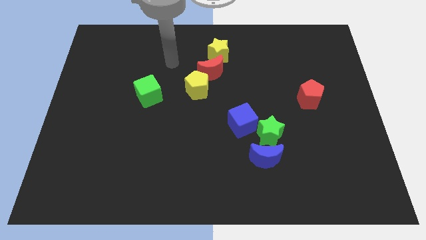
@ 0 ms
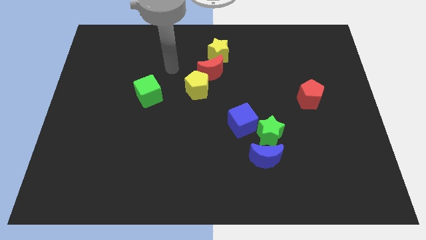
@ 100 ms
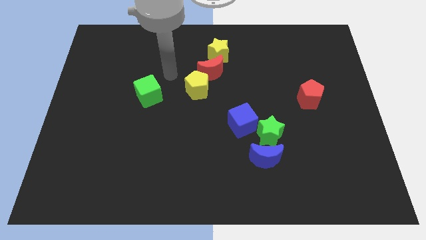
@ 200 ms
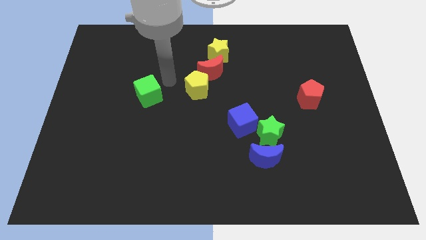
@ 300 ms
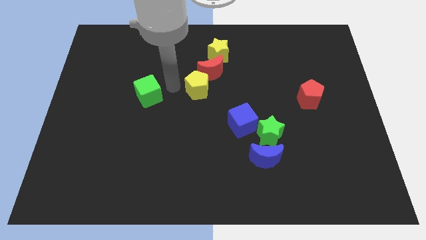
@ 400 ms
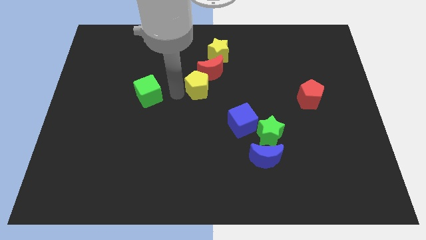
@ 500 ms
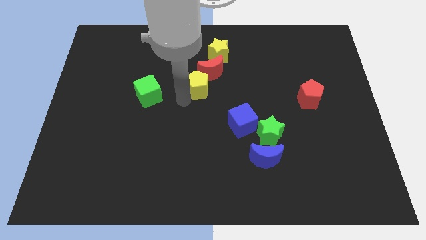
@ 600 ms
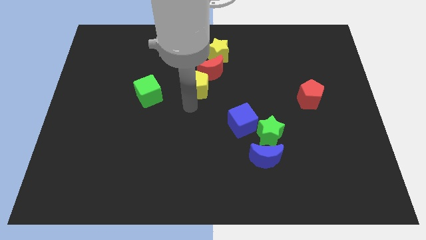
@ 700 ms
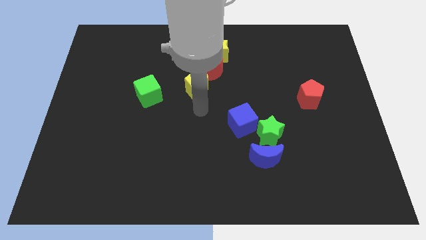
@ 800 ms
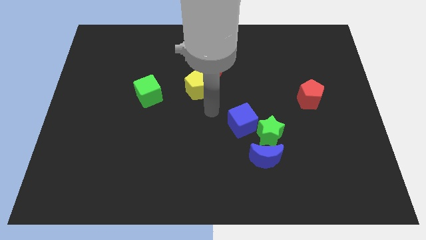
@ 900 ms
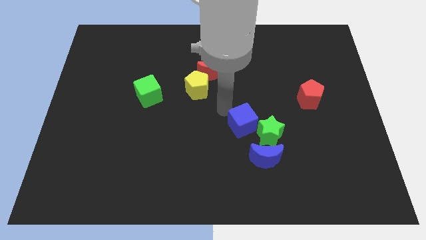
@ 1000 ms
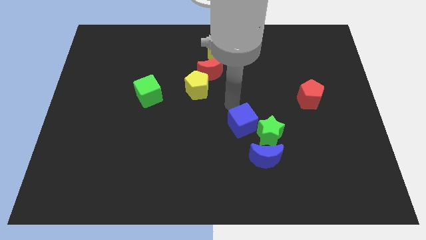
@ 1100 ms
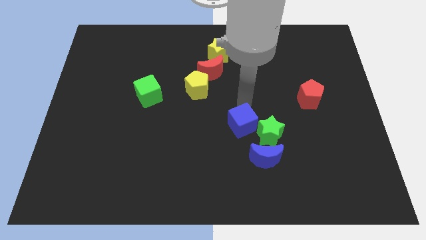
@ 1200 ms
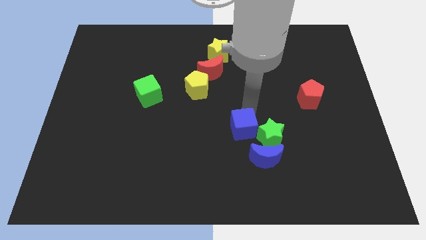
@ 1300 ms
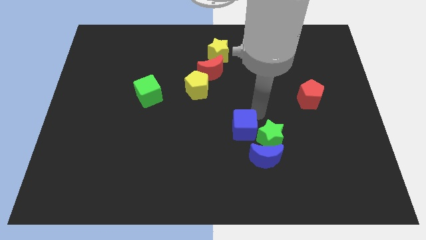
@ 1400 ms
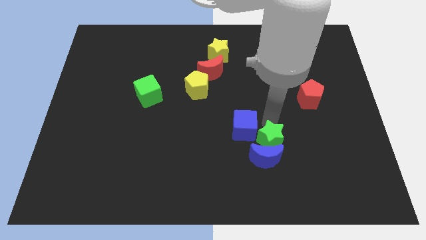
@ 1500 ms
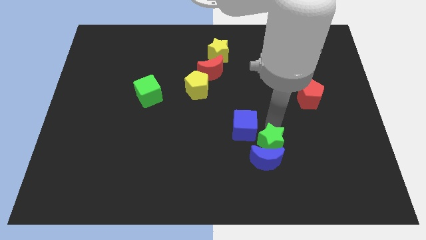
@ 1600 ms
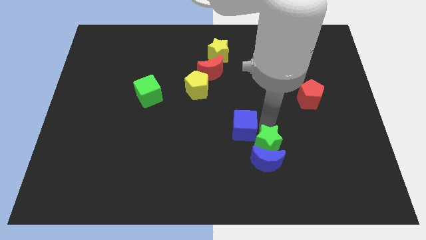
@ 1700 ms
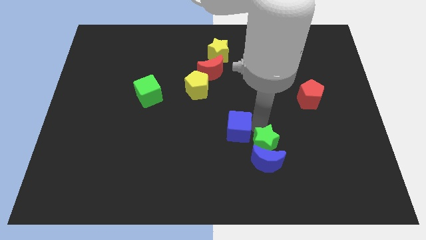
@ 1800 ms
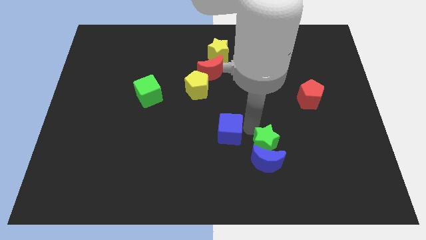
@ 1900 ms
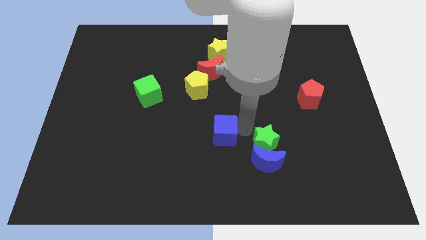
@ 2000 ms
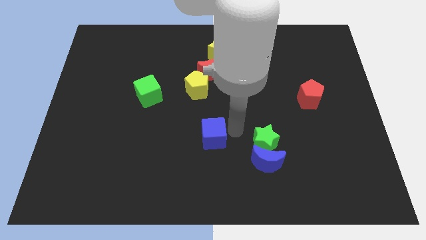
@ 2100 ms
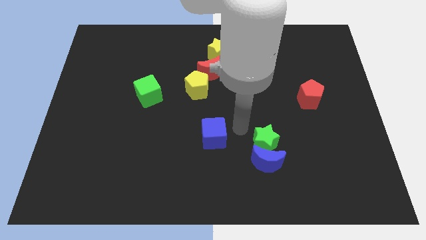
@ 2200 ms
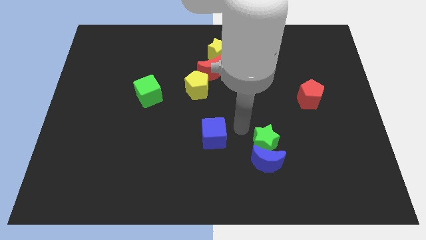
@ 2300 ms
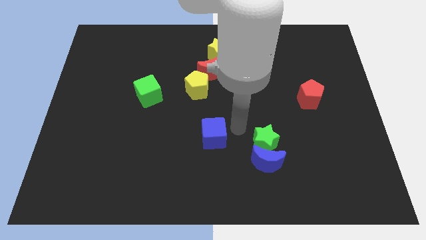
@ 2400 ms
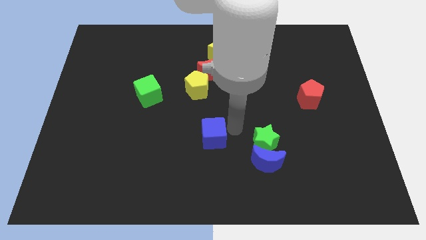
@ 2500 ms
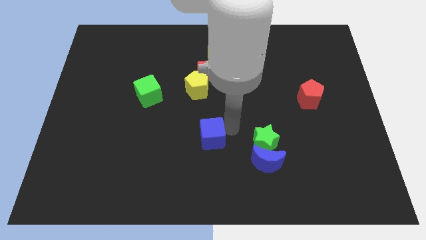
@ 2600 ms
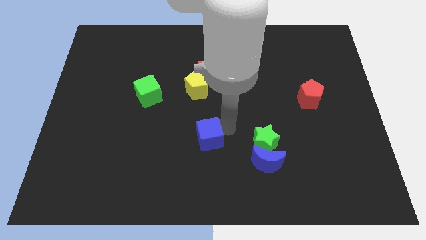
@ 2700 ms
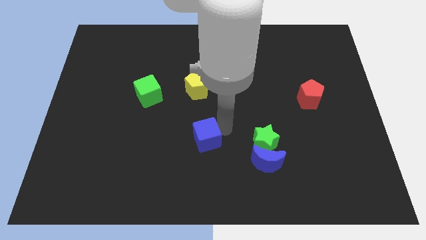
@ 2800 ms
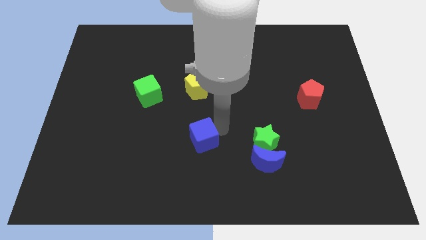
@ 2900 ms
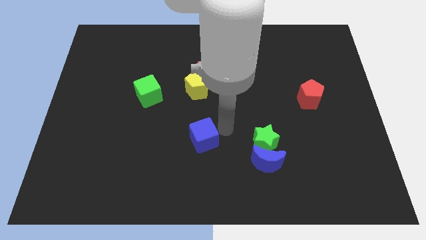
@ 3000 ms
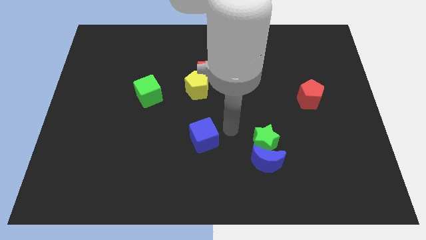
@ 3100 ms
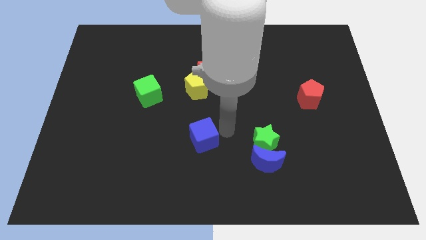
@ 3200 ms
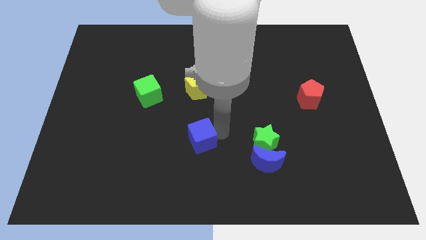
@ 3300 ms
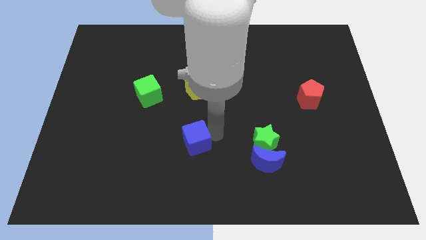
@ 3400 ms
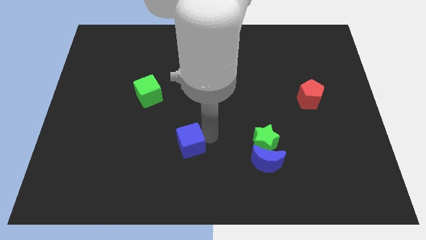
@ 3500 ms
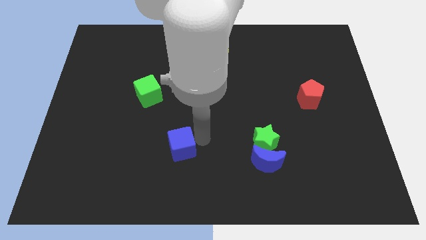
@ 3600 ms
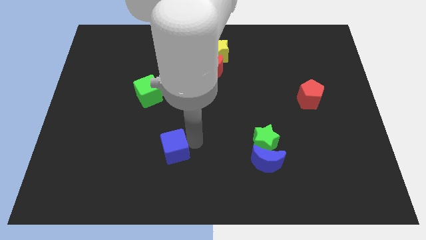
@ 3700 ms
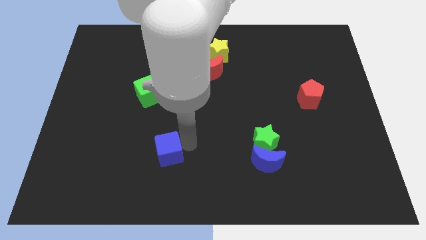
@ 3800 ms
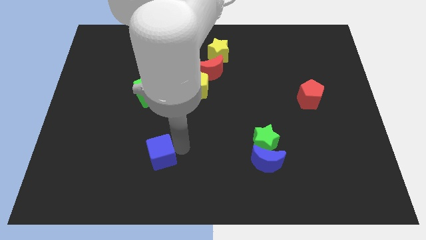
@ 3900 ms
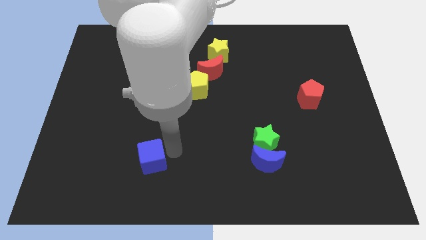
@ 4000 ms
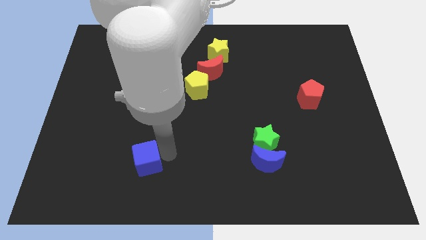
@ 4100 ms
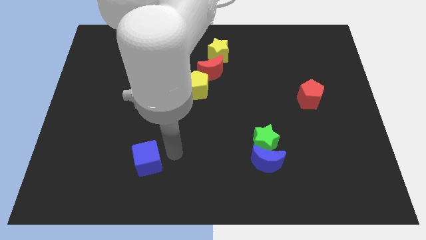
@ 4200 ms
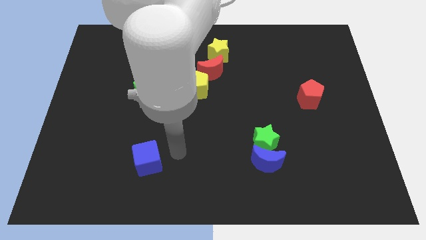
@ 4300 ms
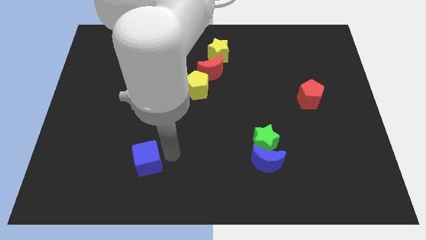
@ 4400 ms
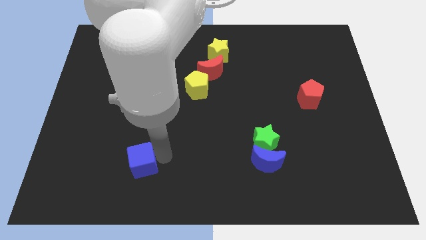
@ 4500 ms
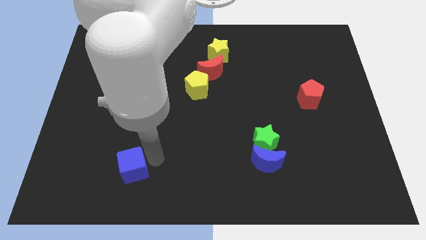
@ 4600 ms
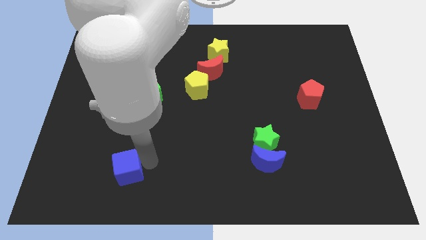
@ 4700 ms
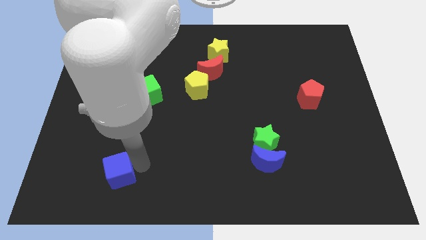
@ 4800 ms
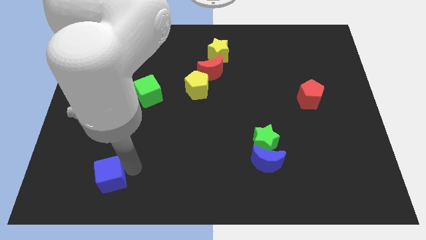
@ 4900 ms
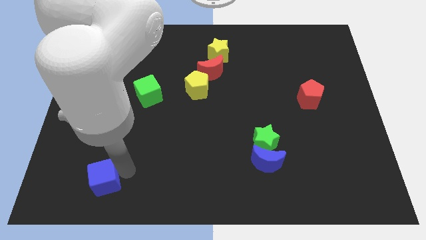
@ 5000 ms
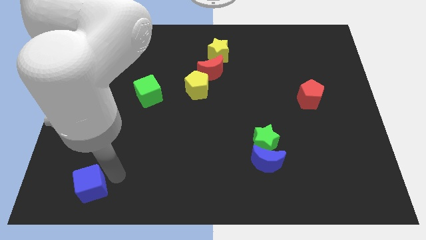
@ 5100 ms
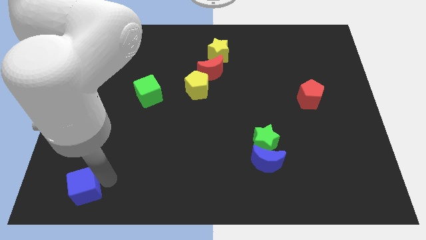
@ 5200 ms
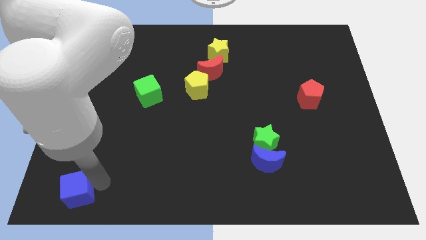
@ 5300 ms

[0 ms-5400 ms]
push the blue cube to the bottom left

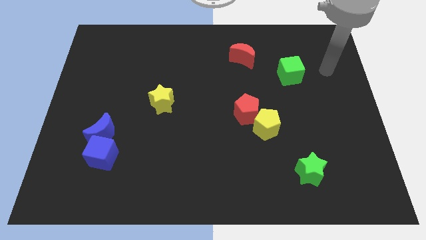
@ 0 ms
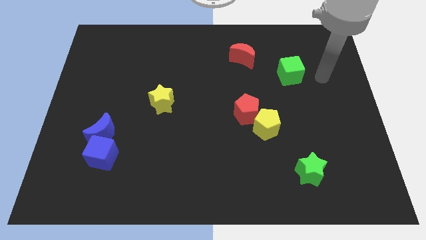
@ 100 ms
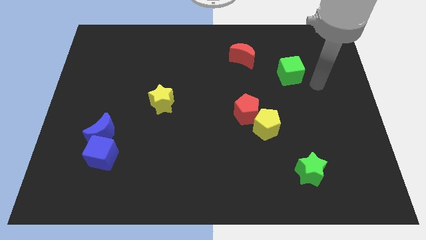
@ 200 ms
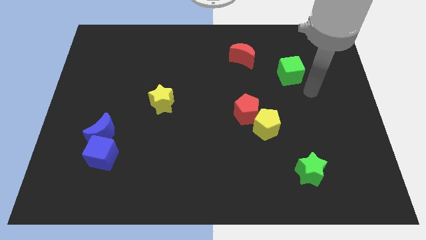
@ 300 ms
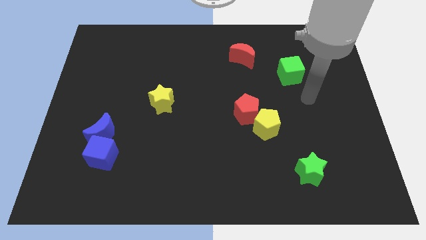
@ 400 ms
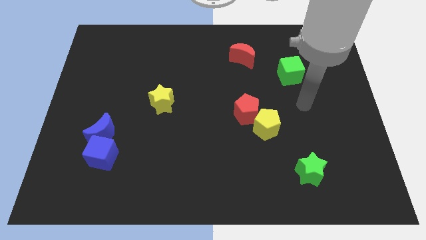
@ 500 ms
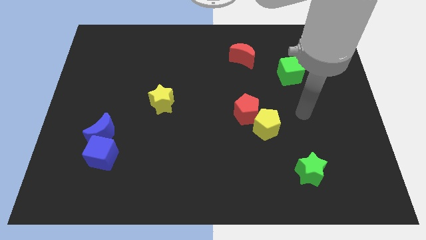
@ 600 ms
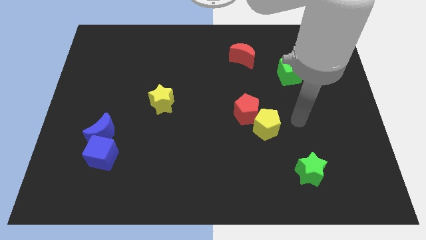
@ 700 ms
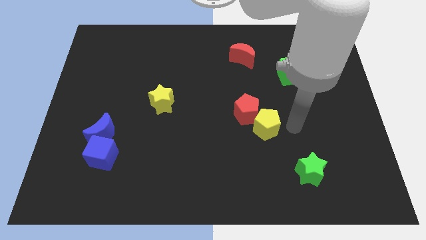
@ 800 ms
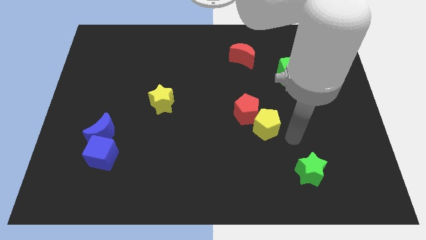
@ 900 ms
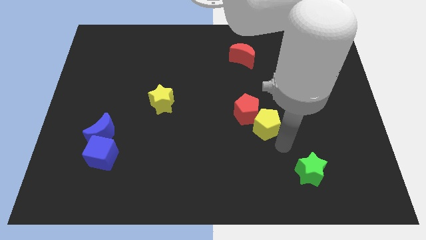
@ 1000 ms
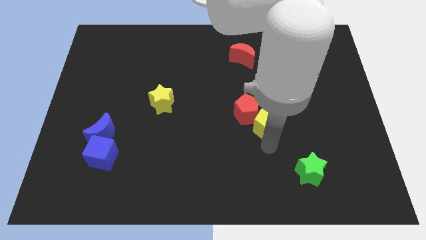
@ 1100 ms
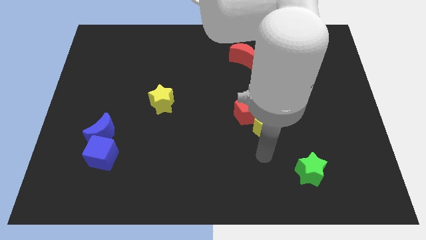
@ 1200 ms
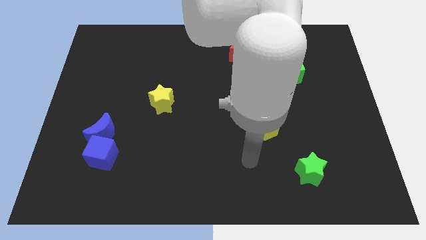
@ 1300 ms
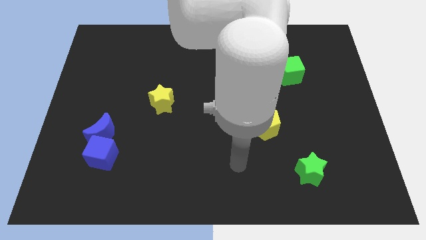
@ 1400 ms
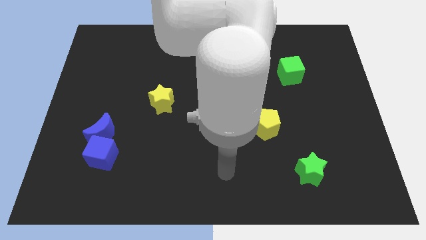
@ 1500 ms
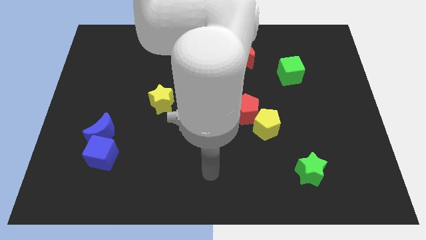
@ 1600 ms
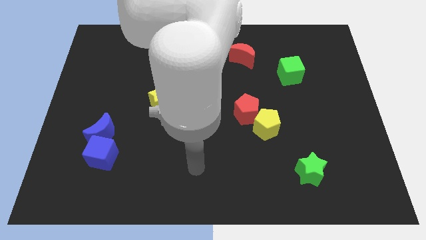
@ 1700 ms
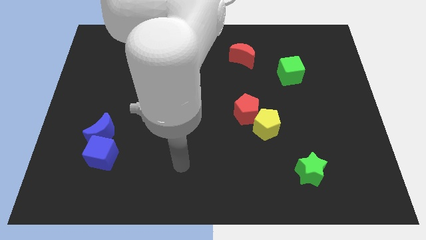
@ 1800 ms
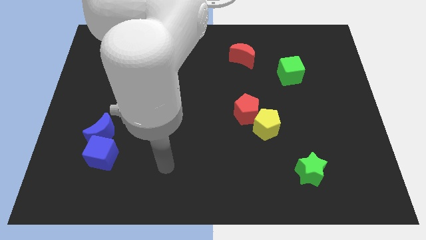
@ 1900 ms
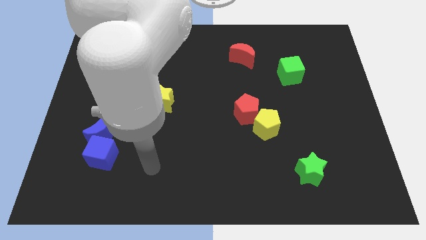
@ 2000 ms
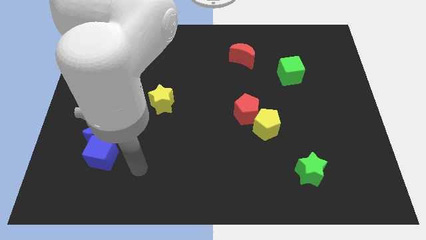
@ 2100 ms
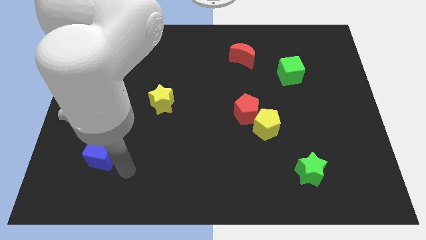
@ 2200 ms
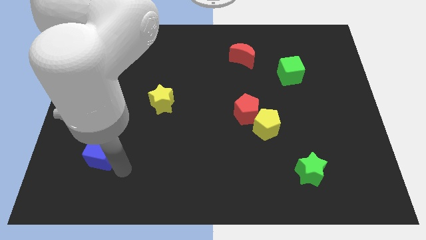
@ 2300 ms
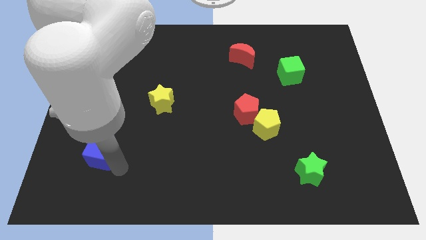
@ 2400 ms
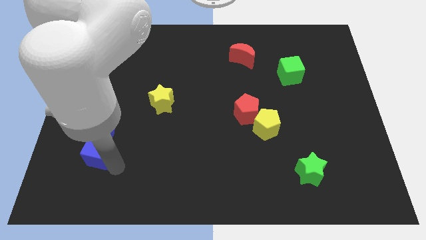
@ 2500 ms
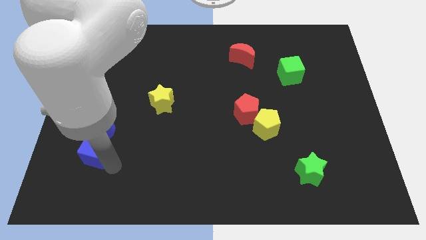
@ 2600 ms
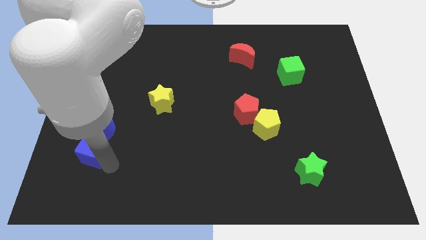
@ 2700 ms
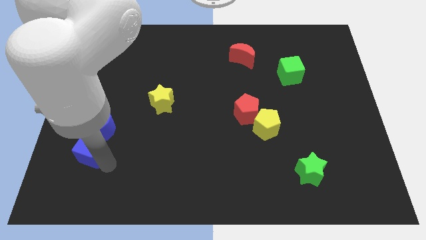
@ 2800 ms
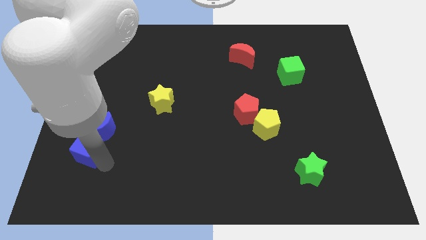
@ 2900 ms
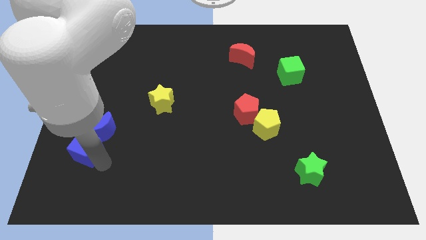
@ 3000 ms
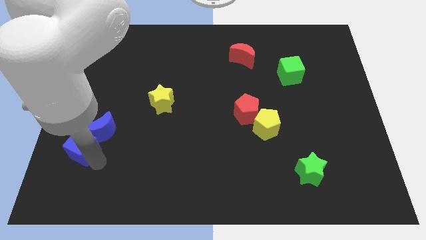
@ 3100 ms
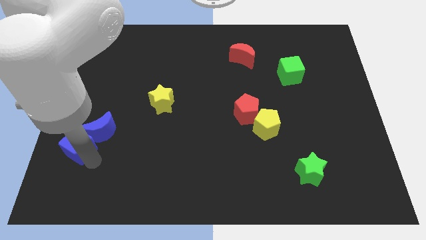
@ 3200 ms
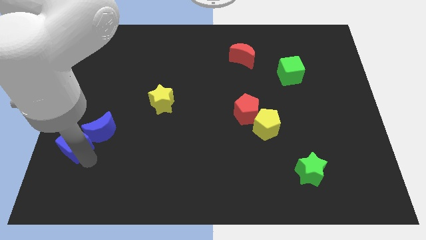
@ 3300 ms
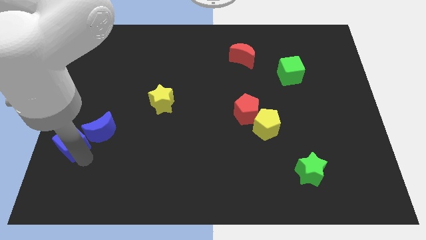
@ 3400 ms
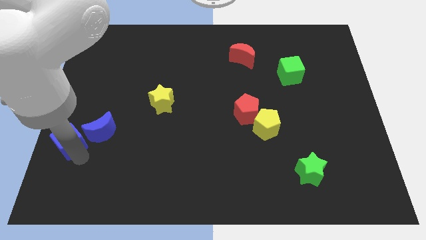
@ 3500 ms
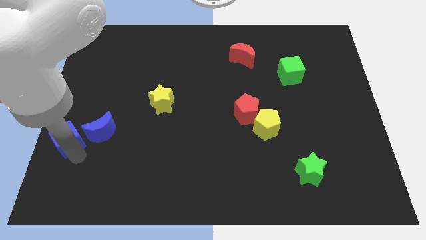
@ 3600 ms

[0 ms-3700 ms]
put the blue cube to the left side of the board
